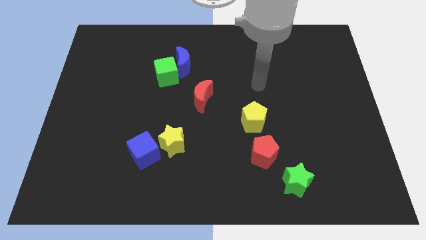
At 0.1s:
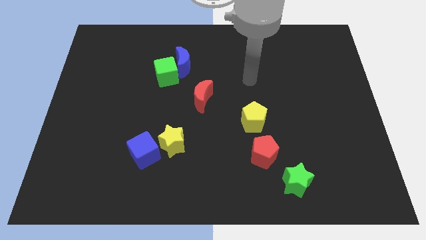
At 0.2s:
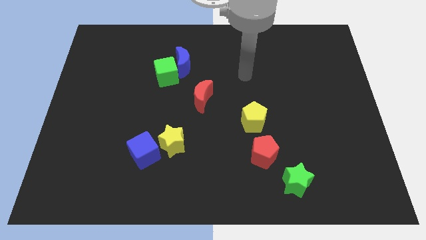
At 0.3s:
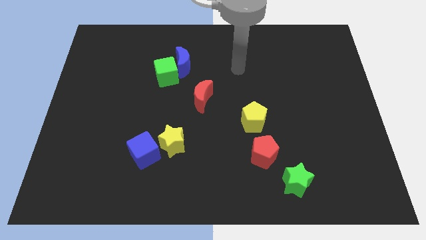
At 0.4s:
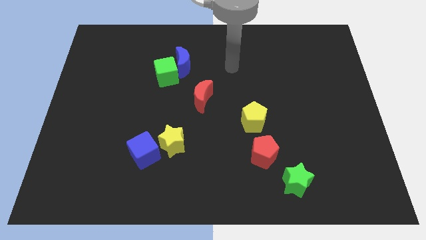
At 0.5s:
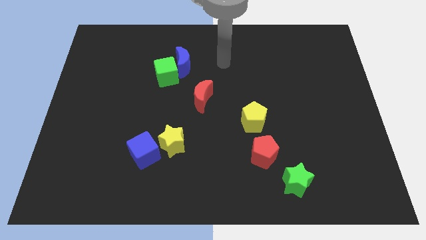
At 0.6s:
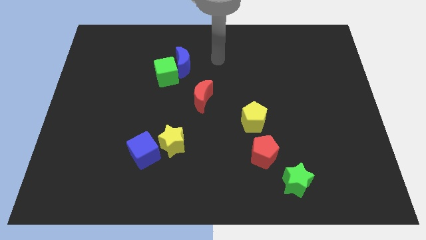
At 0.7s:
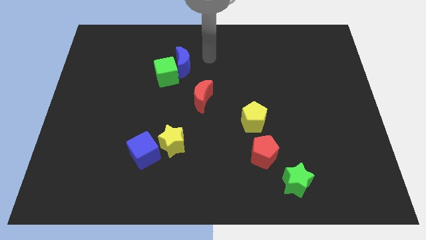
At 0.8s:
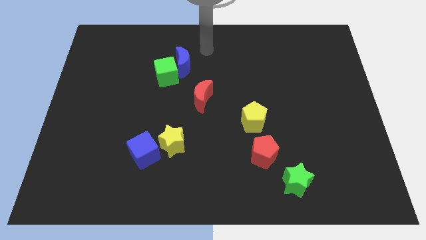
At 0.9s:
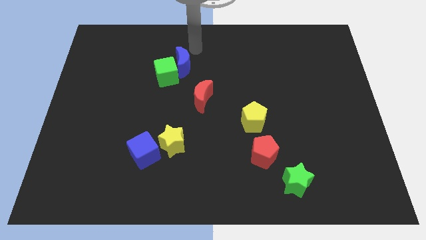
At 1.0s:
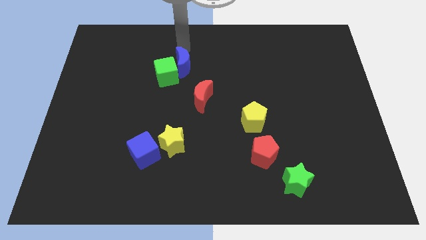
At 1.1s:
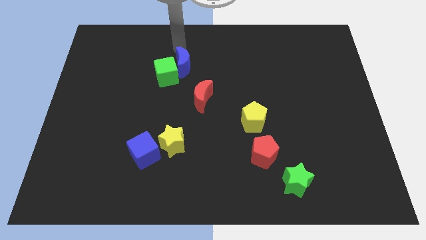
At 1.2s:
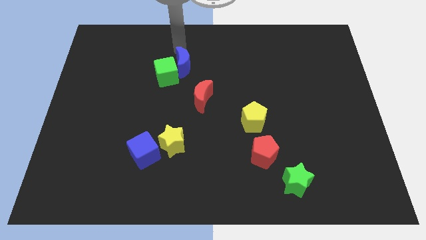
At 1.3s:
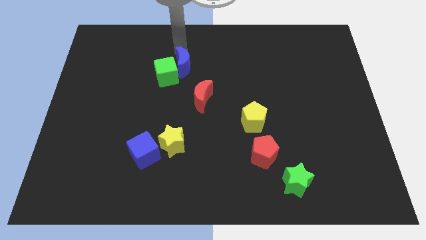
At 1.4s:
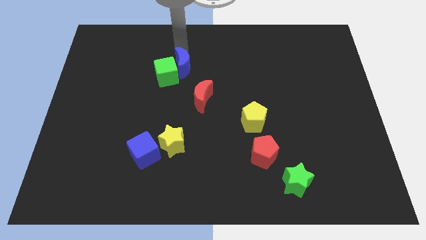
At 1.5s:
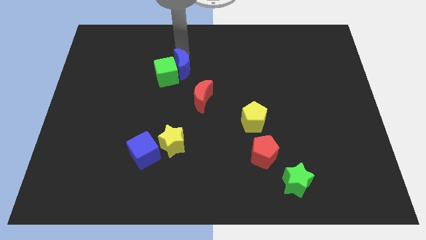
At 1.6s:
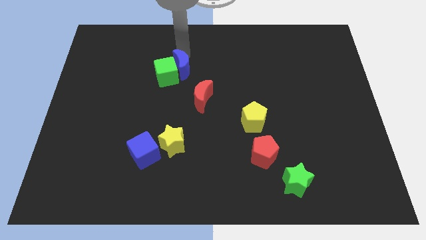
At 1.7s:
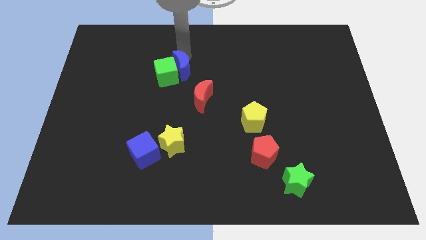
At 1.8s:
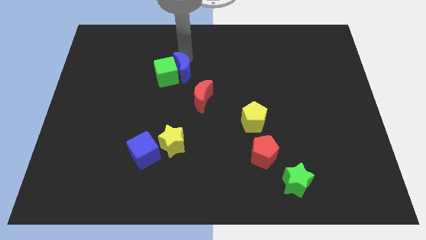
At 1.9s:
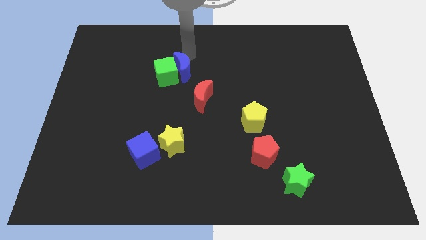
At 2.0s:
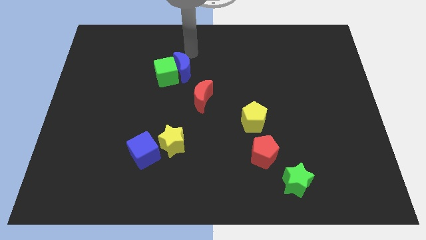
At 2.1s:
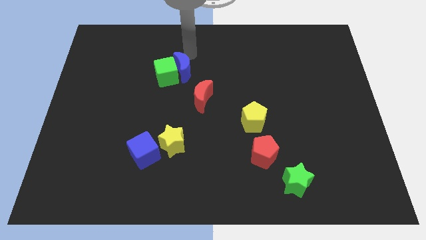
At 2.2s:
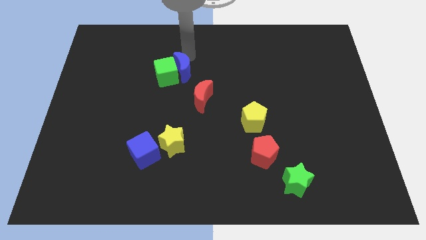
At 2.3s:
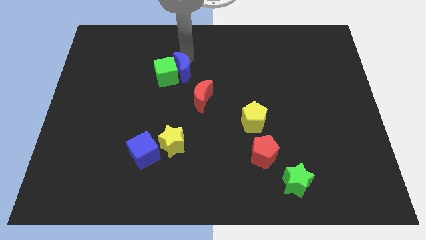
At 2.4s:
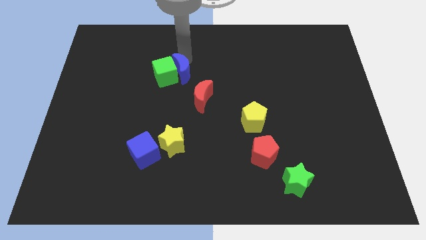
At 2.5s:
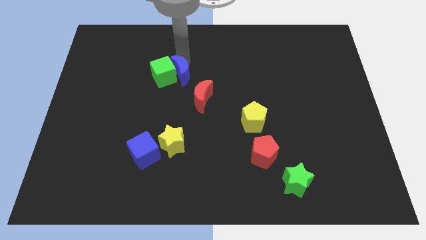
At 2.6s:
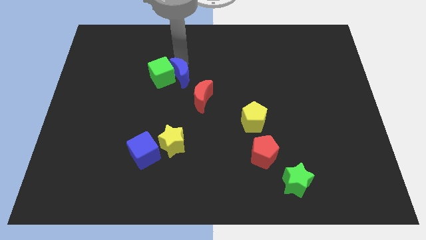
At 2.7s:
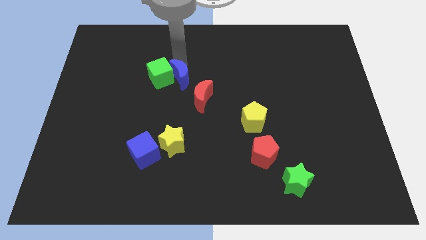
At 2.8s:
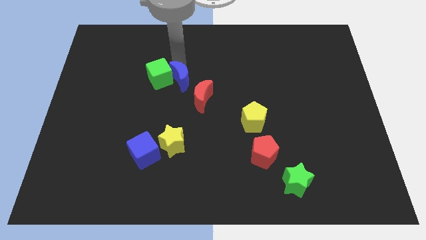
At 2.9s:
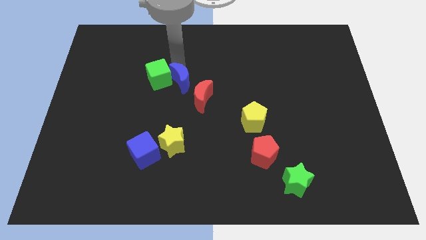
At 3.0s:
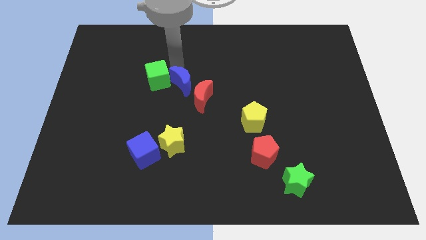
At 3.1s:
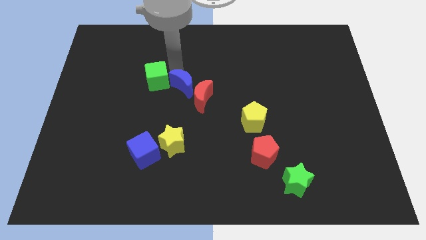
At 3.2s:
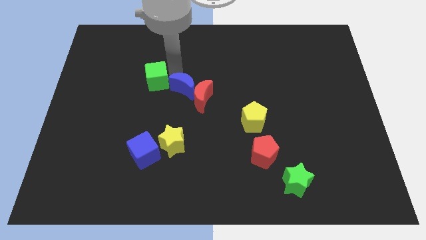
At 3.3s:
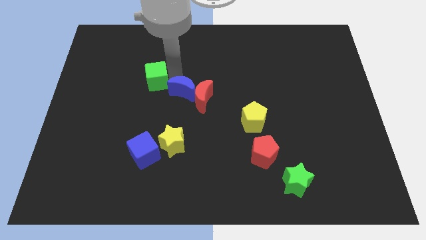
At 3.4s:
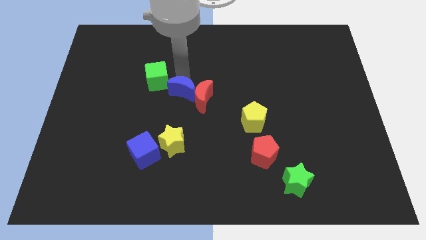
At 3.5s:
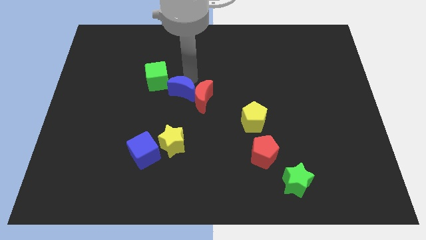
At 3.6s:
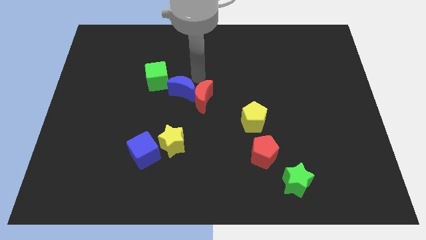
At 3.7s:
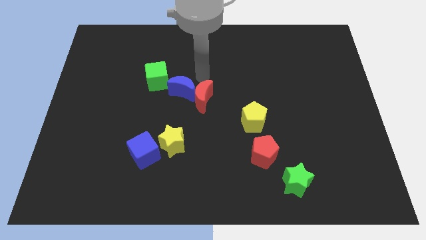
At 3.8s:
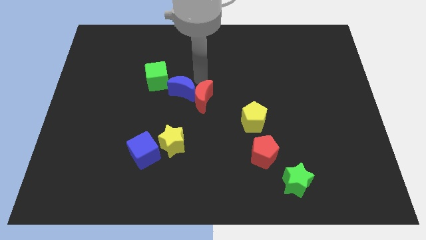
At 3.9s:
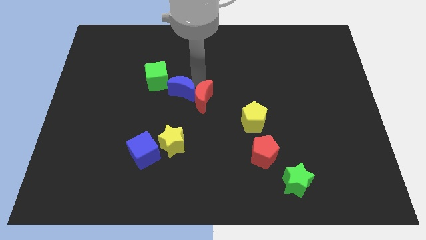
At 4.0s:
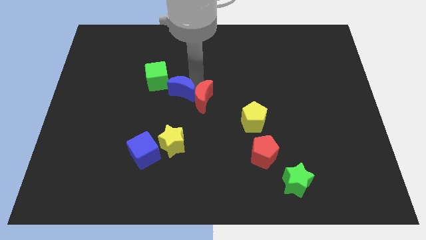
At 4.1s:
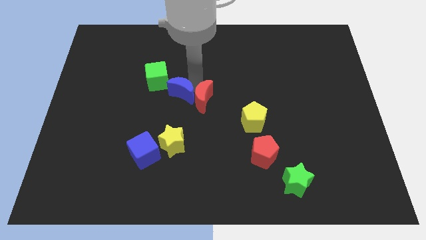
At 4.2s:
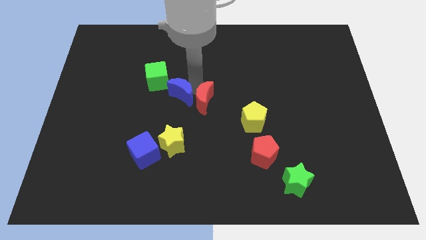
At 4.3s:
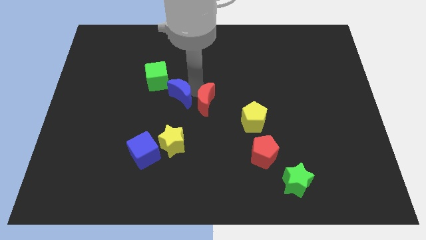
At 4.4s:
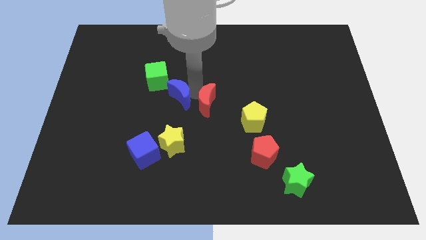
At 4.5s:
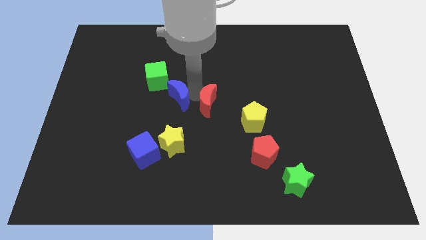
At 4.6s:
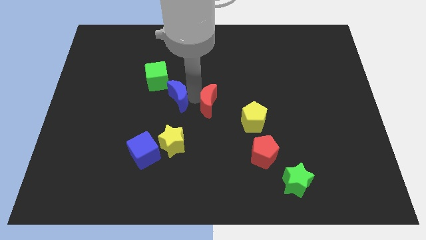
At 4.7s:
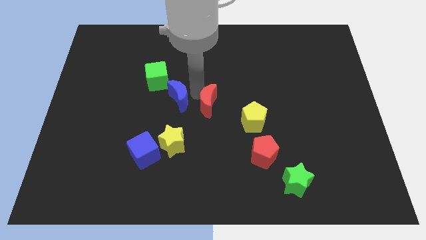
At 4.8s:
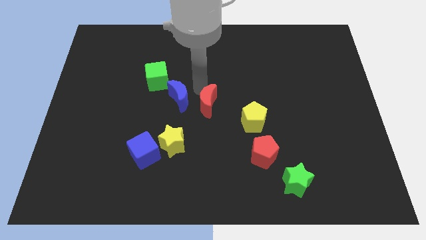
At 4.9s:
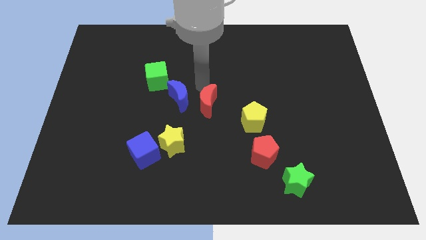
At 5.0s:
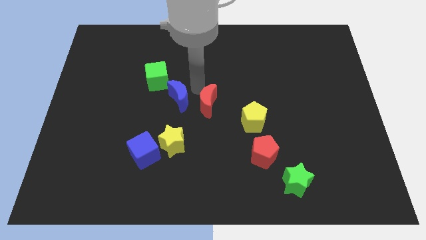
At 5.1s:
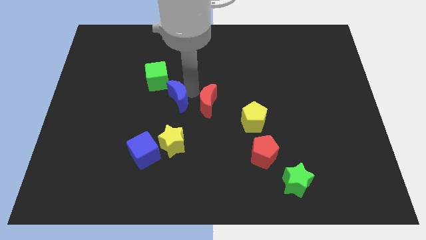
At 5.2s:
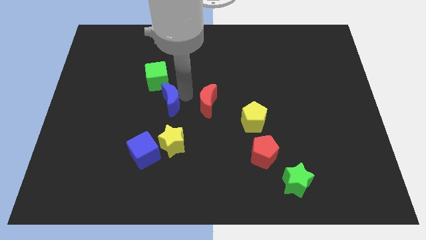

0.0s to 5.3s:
push the blue moon to the bottom side of the green cube

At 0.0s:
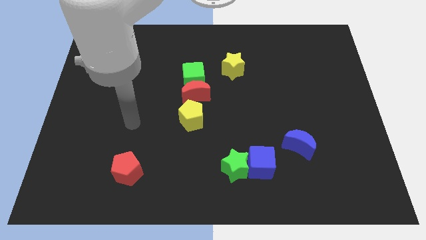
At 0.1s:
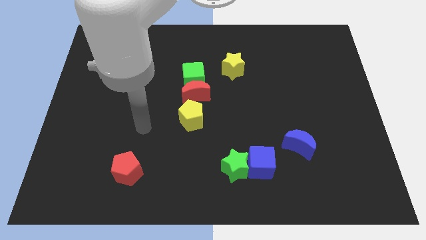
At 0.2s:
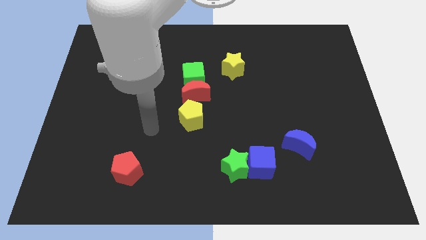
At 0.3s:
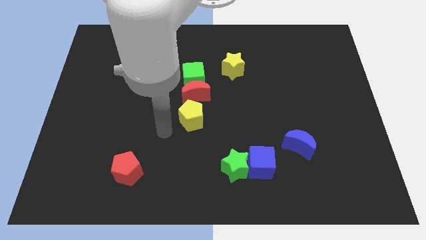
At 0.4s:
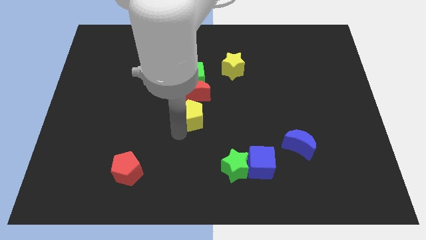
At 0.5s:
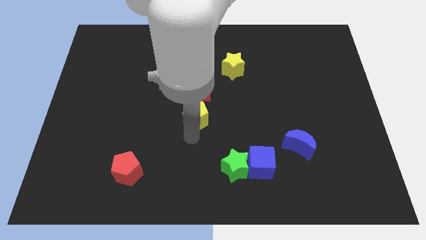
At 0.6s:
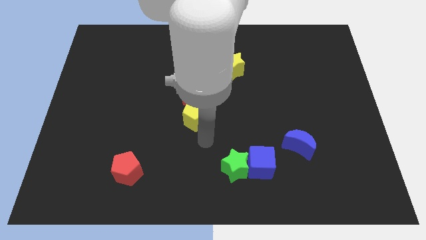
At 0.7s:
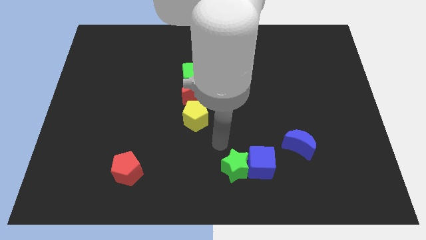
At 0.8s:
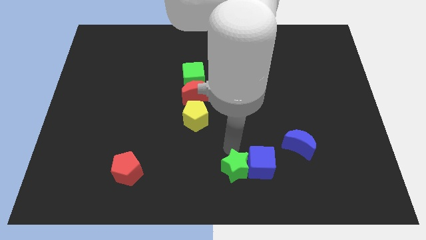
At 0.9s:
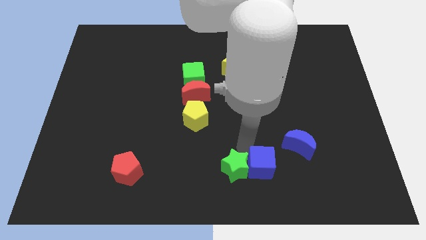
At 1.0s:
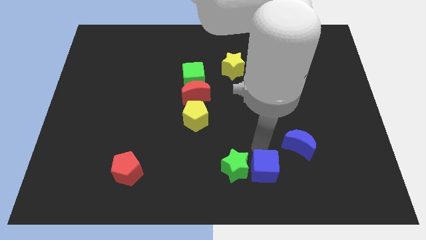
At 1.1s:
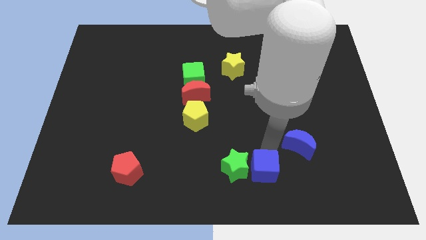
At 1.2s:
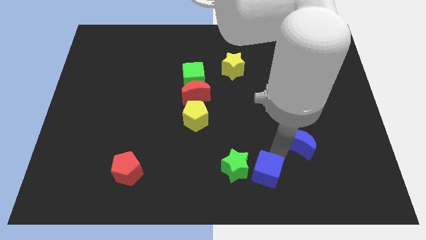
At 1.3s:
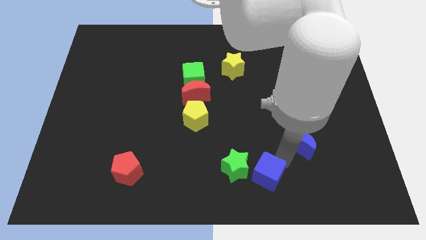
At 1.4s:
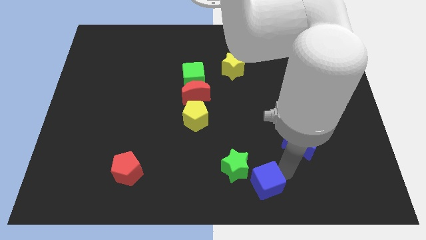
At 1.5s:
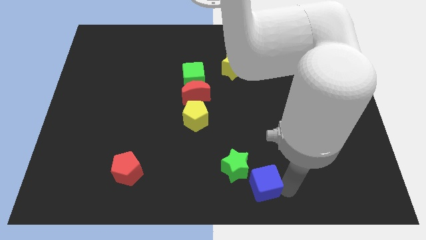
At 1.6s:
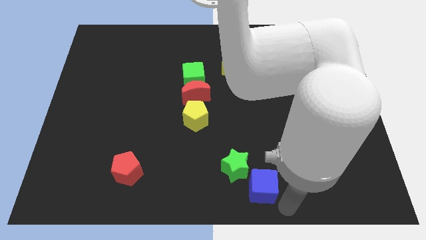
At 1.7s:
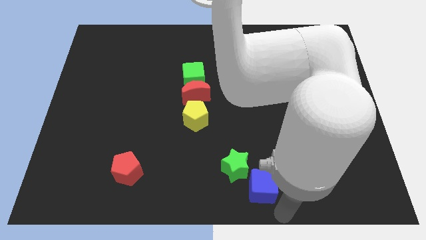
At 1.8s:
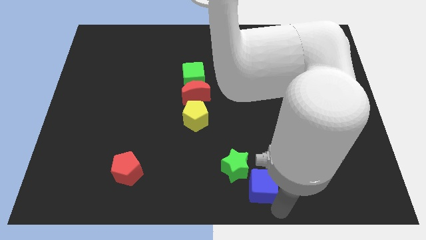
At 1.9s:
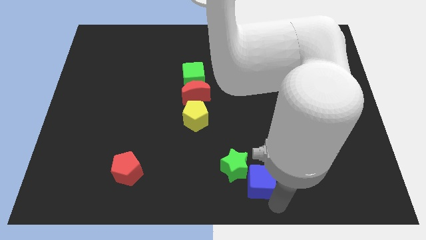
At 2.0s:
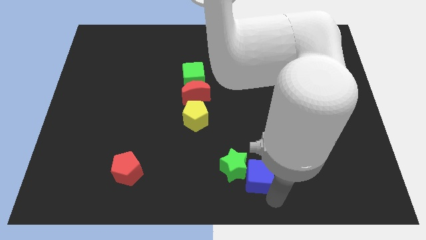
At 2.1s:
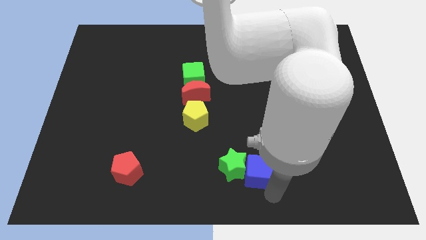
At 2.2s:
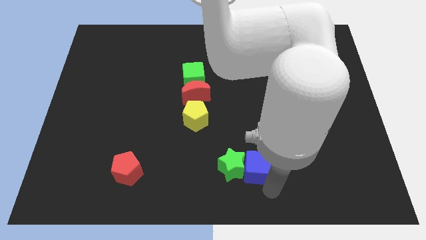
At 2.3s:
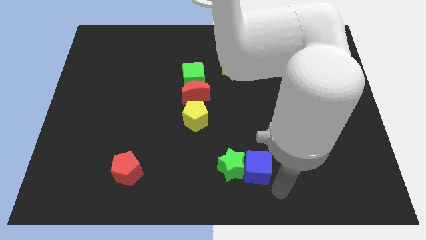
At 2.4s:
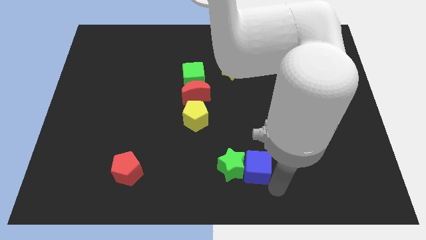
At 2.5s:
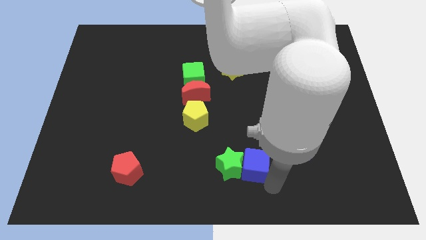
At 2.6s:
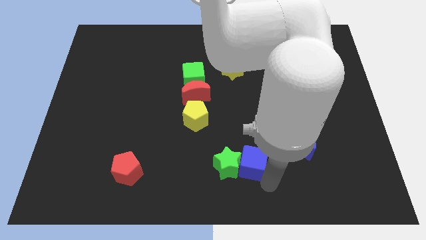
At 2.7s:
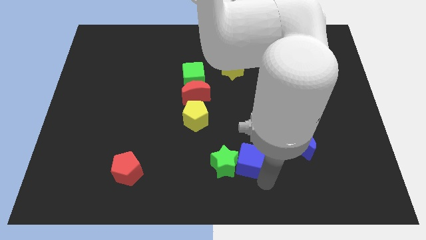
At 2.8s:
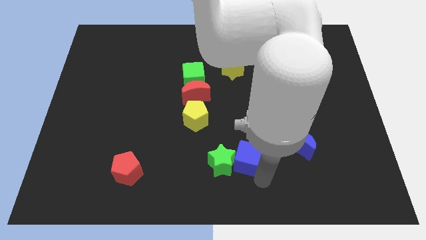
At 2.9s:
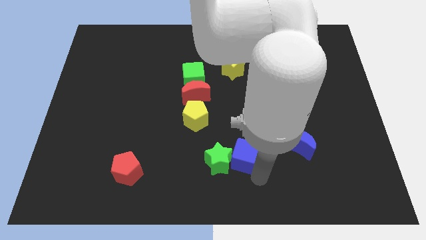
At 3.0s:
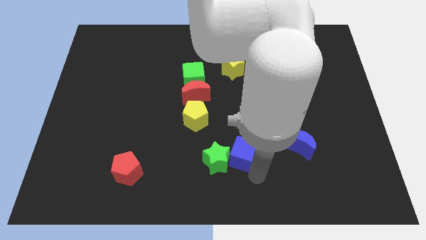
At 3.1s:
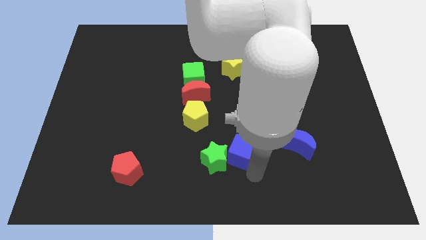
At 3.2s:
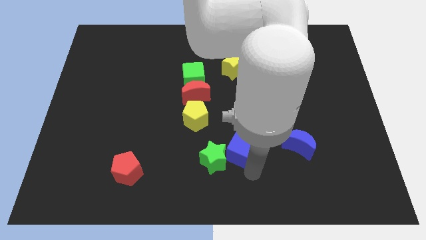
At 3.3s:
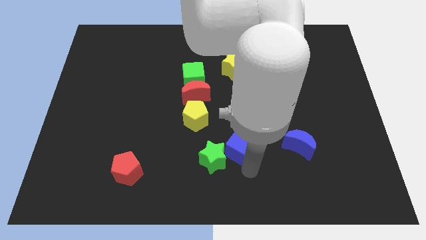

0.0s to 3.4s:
move the blue cube diagonally down and to the right of the yellow pentagon
